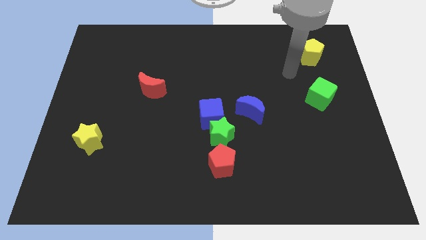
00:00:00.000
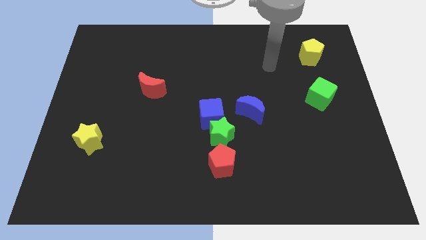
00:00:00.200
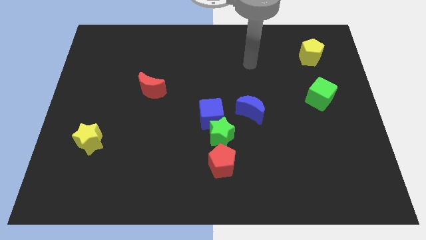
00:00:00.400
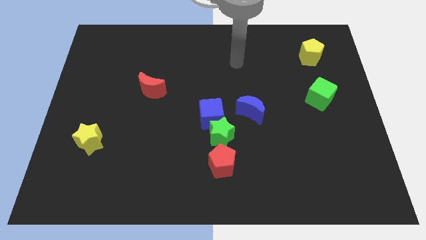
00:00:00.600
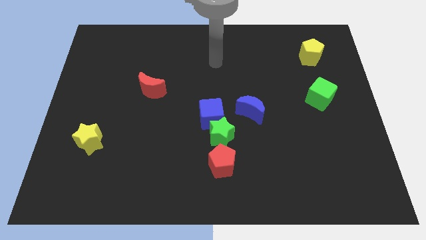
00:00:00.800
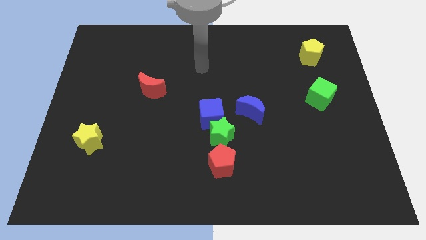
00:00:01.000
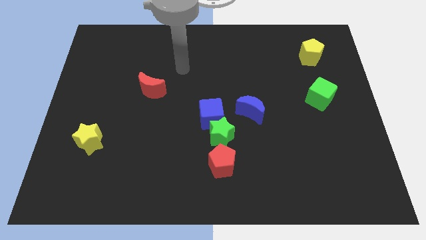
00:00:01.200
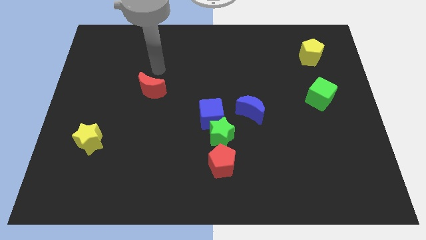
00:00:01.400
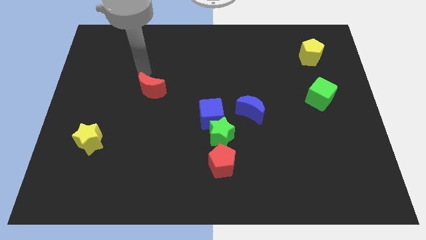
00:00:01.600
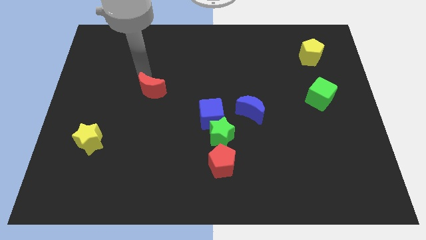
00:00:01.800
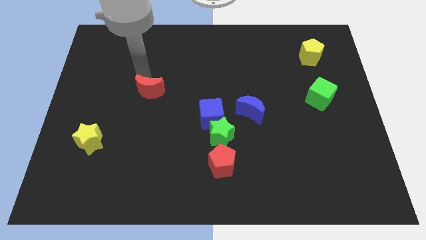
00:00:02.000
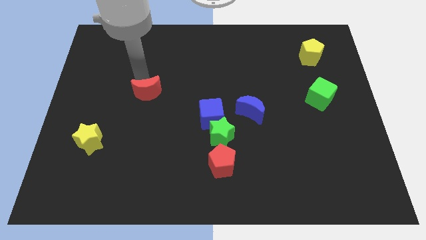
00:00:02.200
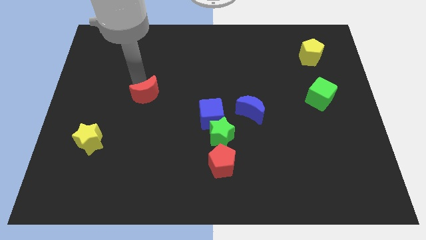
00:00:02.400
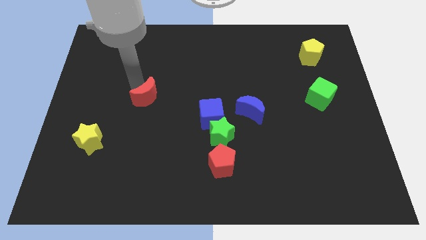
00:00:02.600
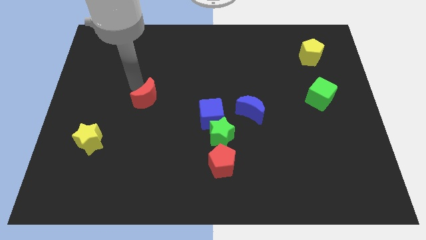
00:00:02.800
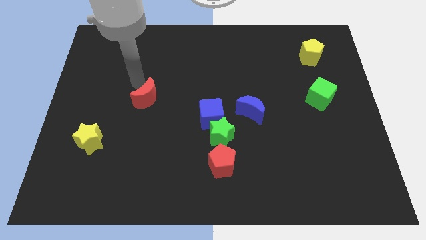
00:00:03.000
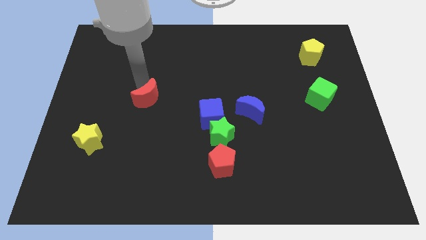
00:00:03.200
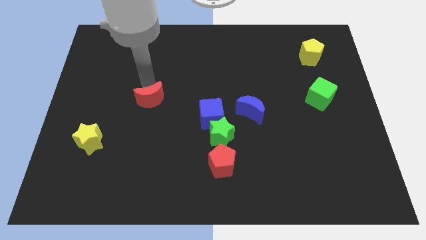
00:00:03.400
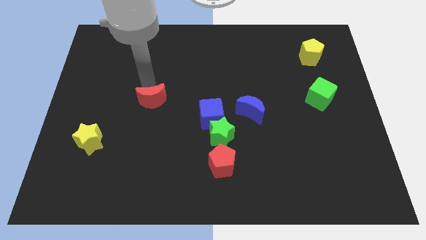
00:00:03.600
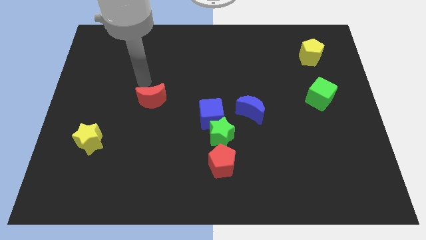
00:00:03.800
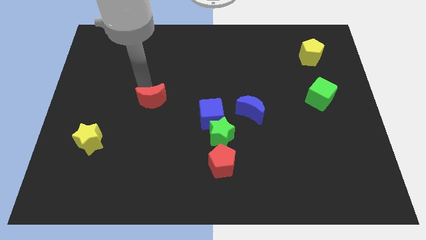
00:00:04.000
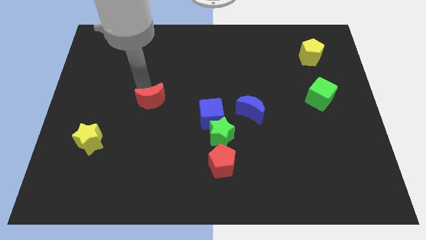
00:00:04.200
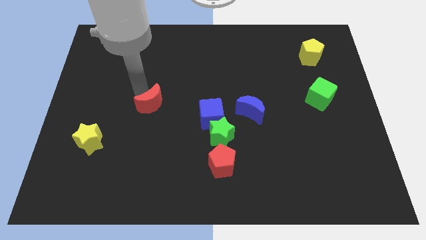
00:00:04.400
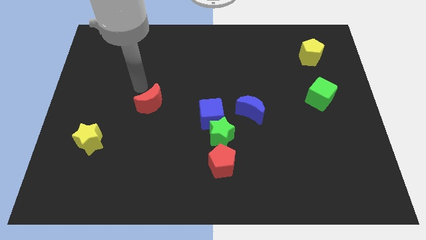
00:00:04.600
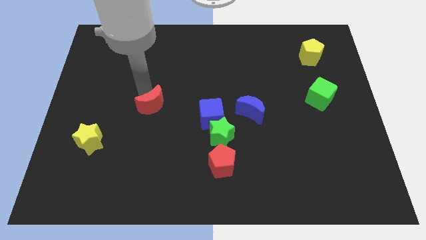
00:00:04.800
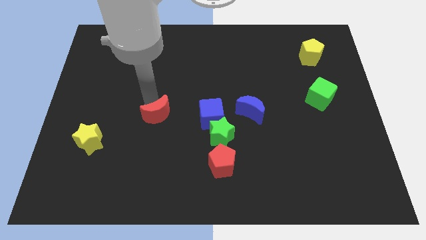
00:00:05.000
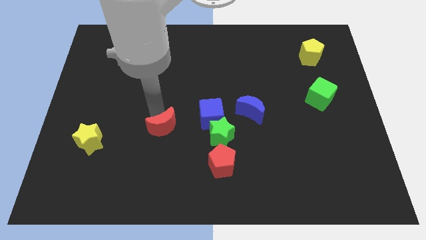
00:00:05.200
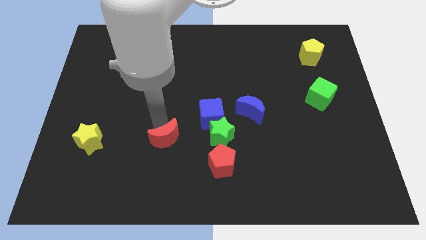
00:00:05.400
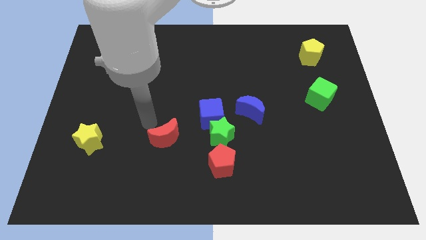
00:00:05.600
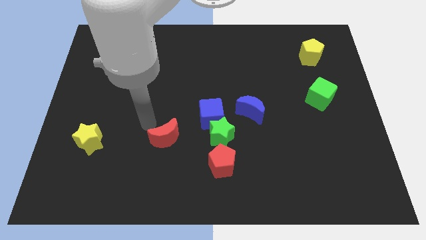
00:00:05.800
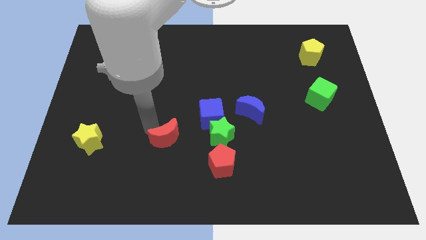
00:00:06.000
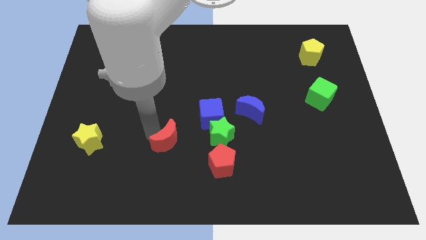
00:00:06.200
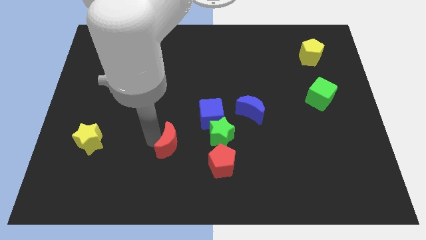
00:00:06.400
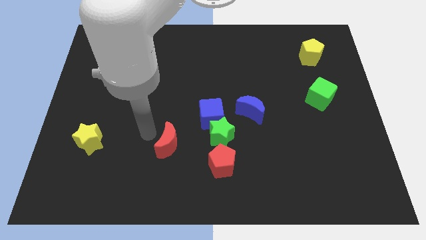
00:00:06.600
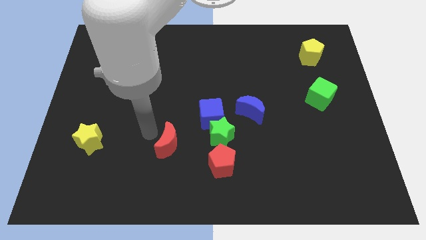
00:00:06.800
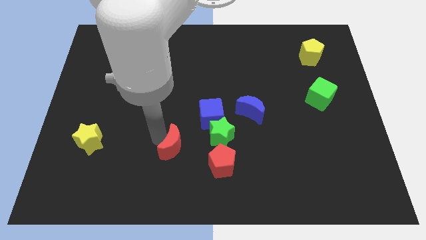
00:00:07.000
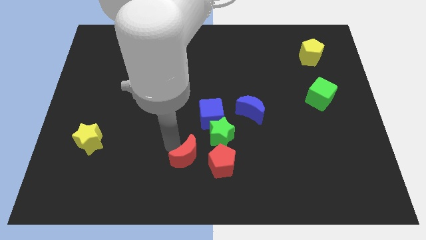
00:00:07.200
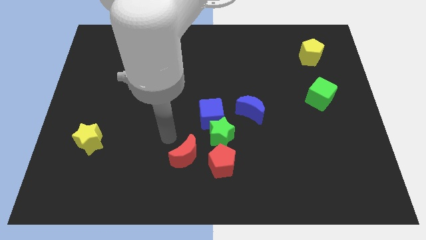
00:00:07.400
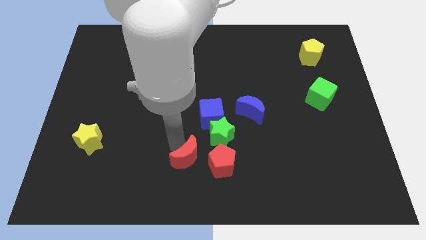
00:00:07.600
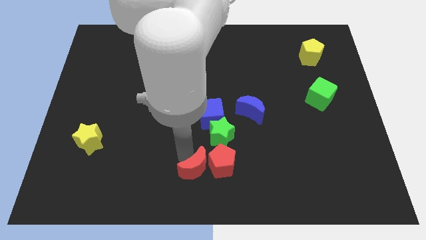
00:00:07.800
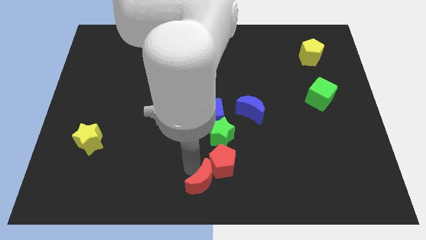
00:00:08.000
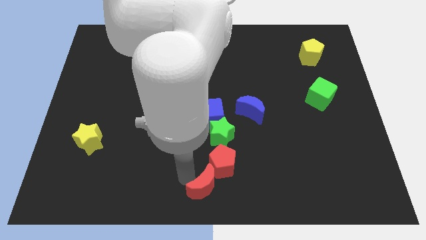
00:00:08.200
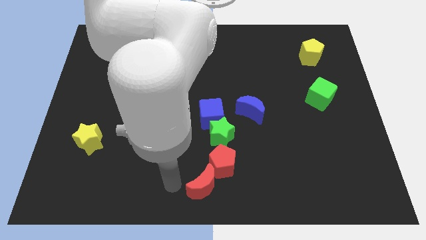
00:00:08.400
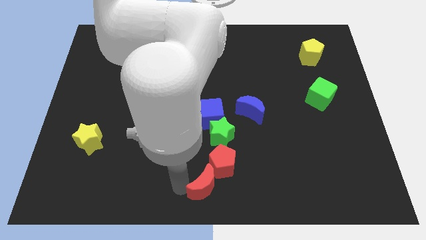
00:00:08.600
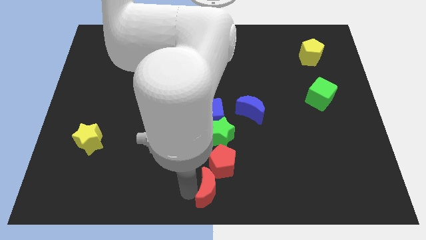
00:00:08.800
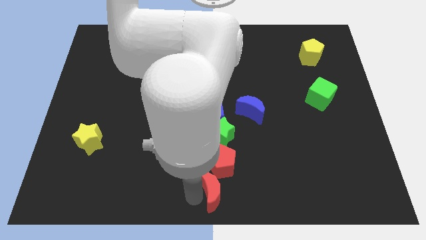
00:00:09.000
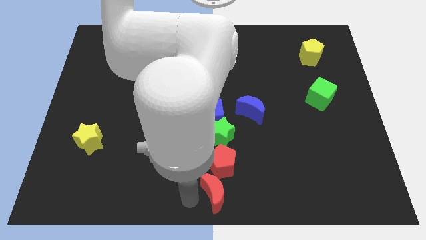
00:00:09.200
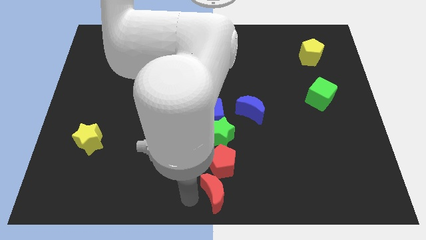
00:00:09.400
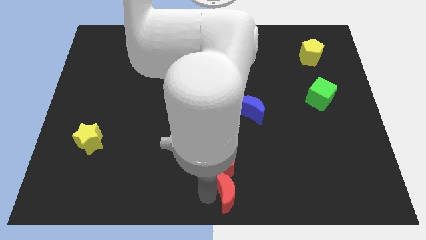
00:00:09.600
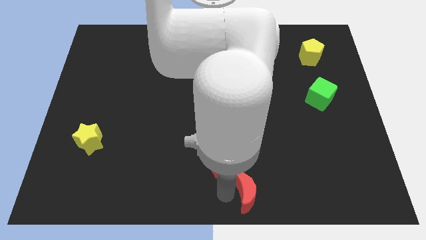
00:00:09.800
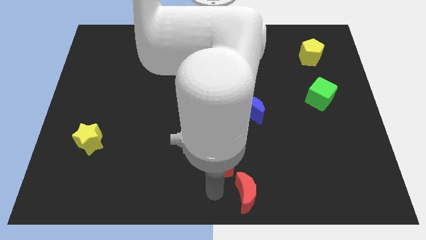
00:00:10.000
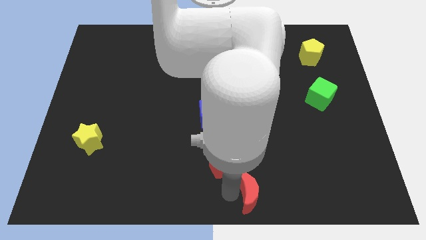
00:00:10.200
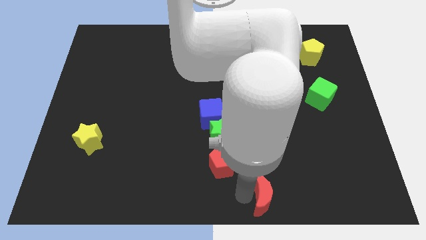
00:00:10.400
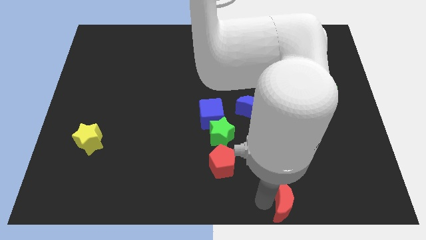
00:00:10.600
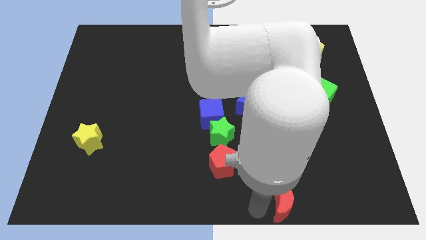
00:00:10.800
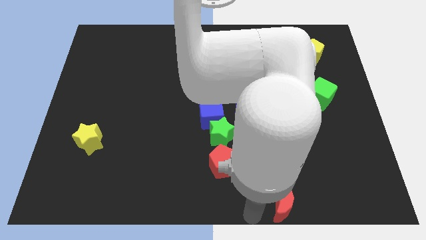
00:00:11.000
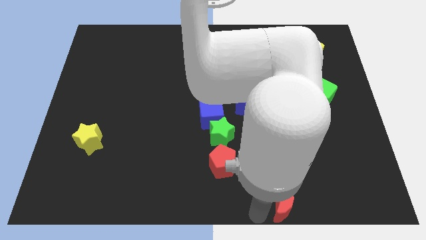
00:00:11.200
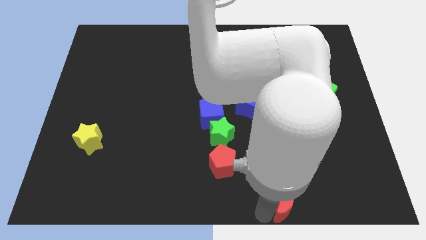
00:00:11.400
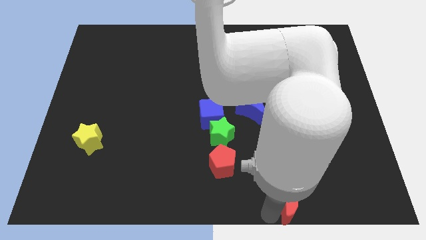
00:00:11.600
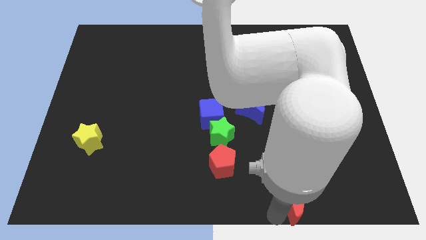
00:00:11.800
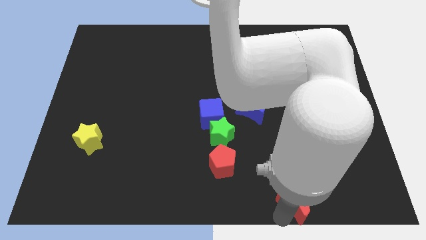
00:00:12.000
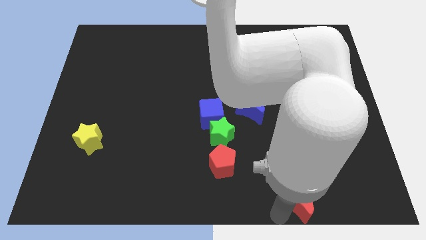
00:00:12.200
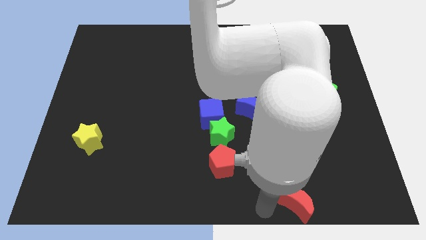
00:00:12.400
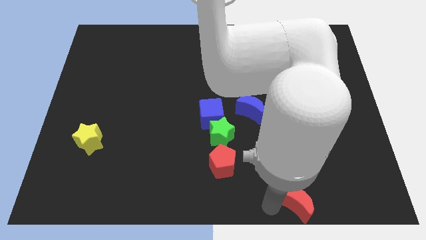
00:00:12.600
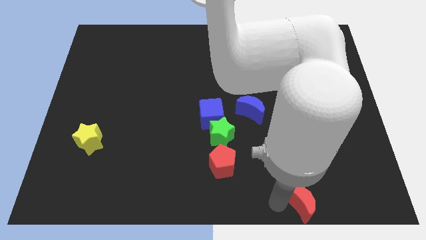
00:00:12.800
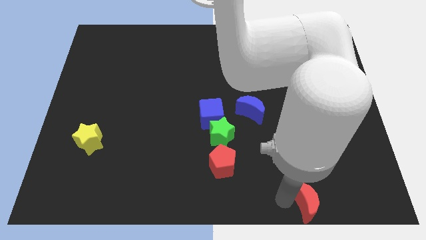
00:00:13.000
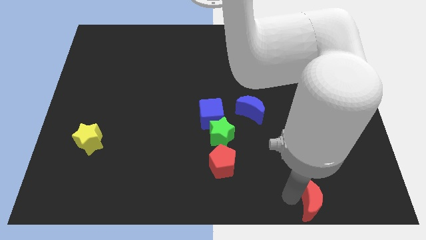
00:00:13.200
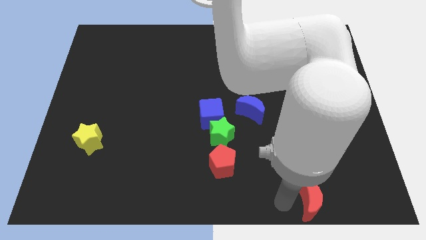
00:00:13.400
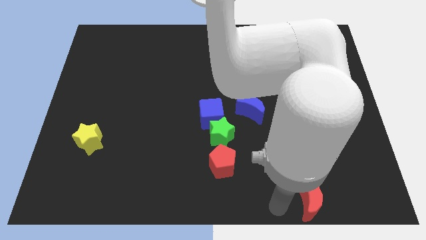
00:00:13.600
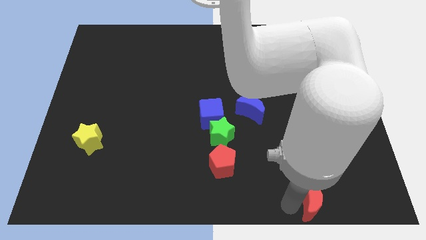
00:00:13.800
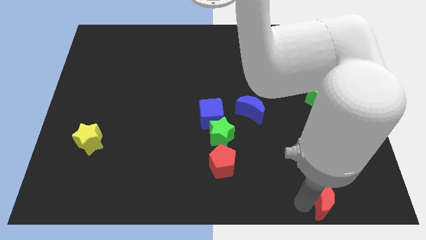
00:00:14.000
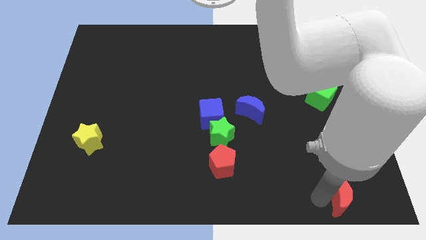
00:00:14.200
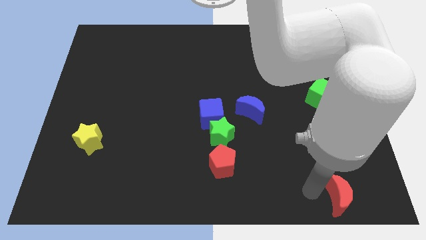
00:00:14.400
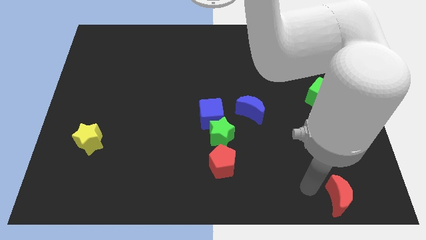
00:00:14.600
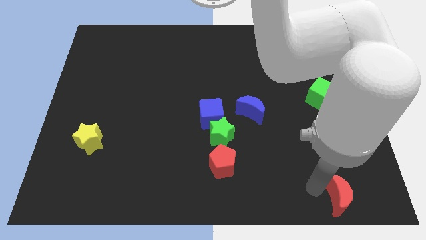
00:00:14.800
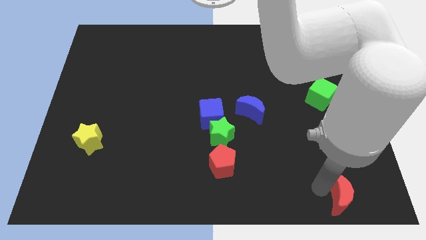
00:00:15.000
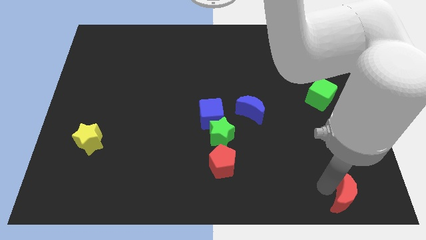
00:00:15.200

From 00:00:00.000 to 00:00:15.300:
put the red moon to the bottom right of the board
